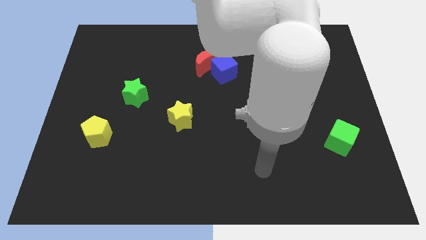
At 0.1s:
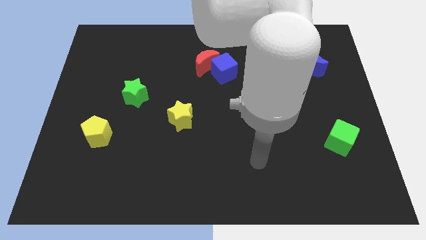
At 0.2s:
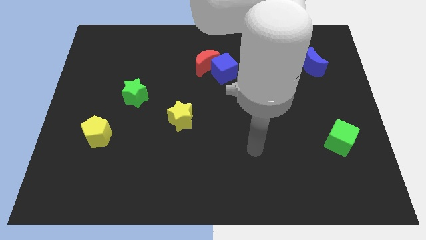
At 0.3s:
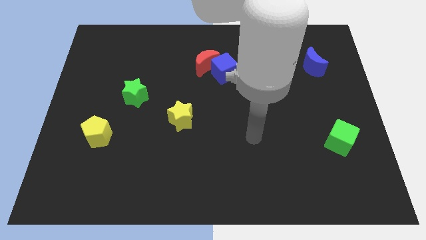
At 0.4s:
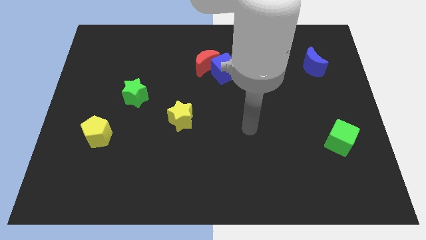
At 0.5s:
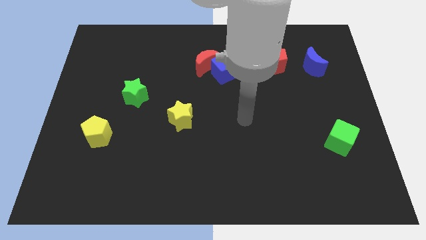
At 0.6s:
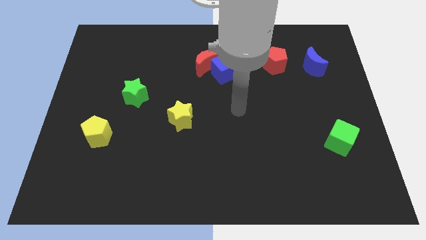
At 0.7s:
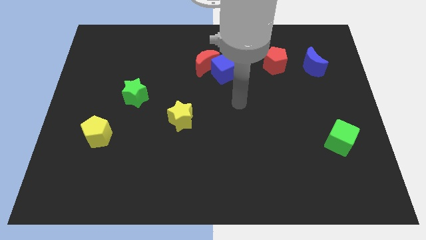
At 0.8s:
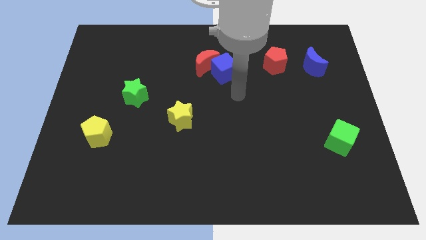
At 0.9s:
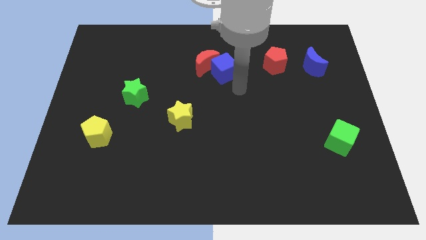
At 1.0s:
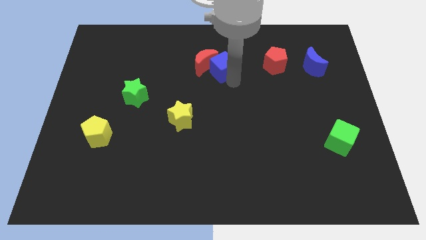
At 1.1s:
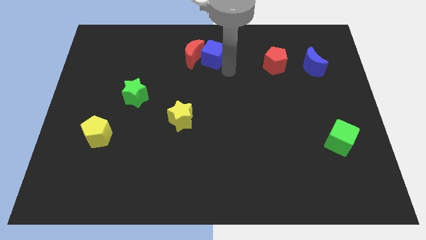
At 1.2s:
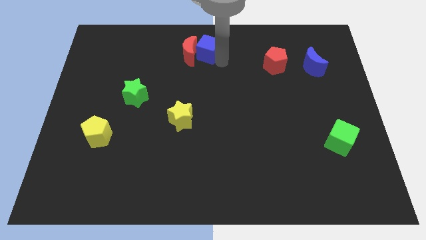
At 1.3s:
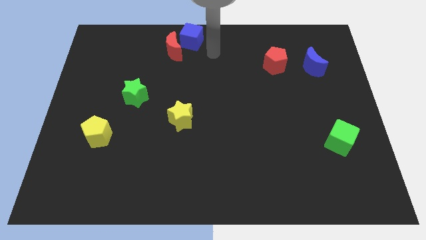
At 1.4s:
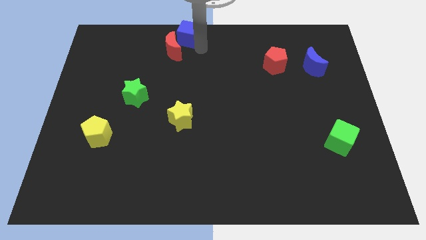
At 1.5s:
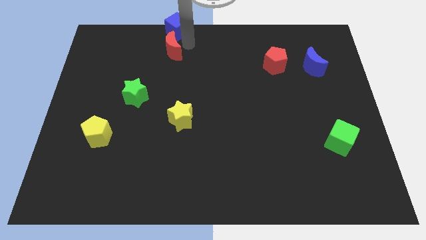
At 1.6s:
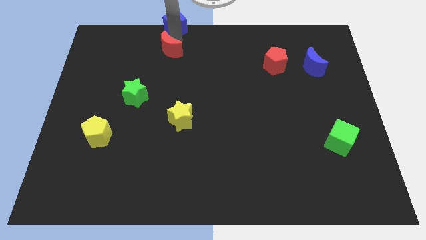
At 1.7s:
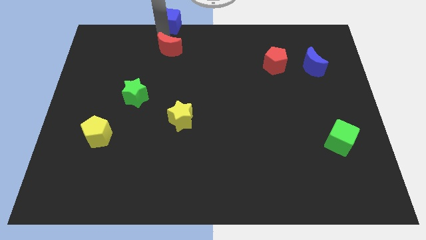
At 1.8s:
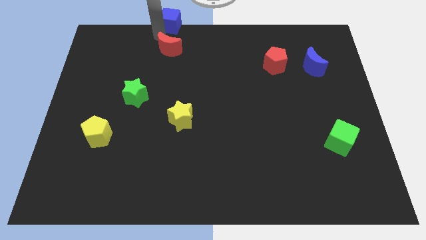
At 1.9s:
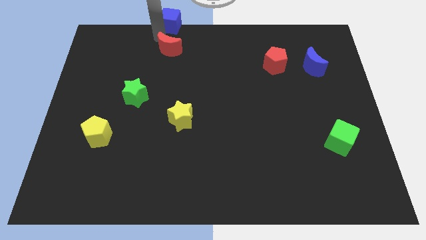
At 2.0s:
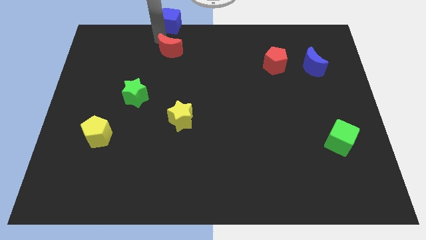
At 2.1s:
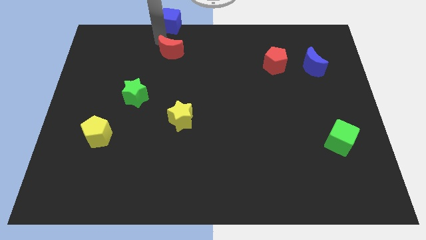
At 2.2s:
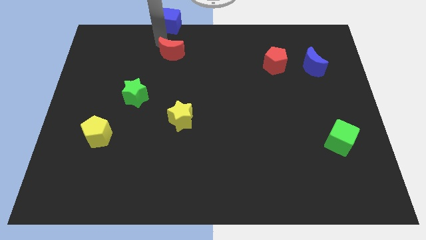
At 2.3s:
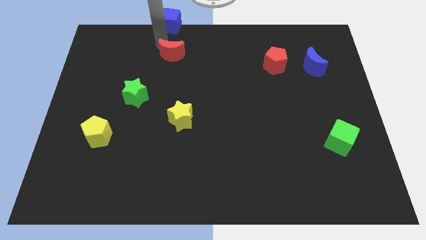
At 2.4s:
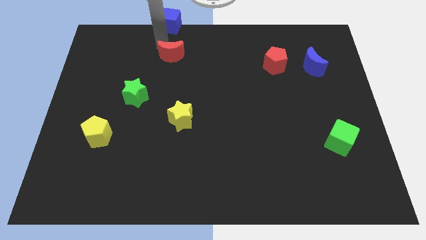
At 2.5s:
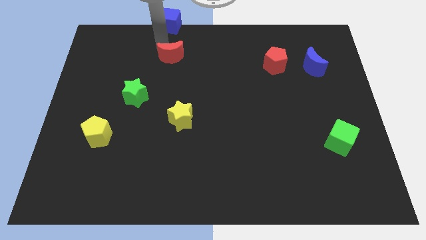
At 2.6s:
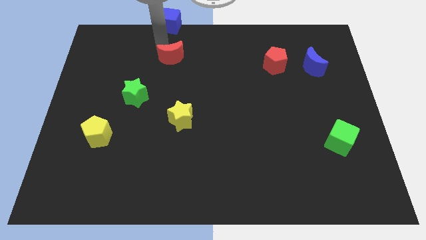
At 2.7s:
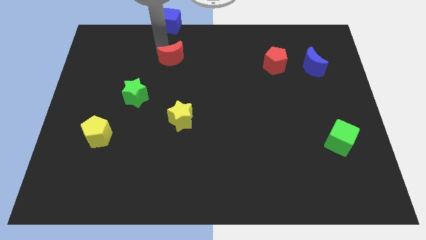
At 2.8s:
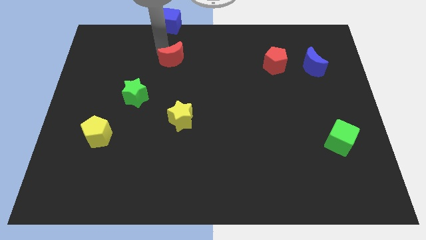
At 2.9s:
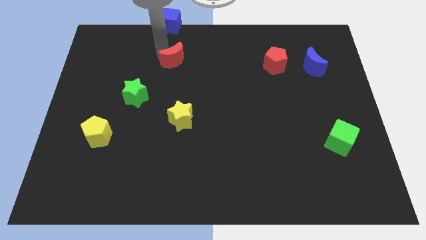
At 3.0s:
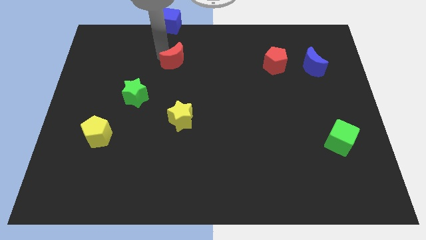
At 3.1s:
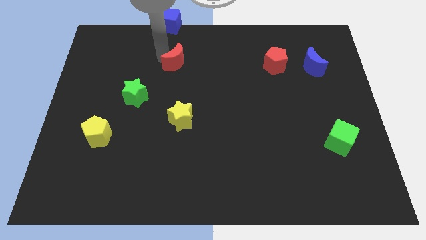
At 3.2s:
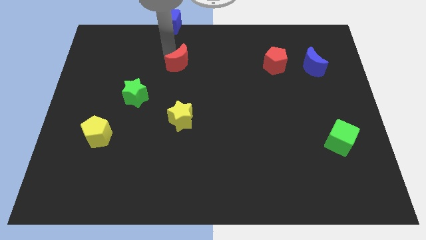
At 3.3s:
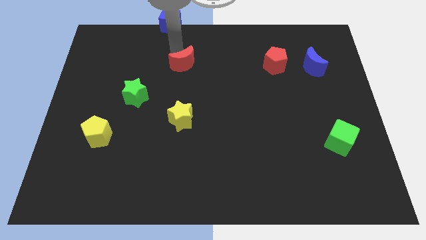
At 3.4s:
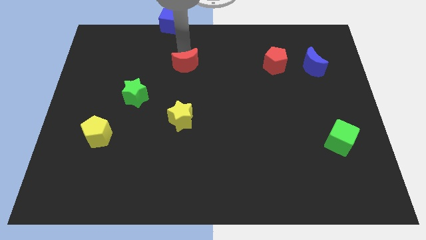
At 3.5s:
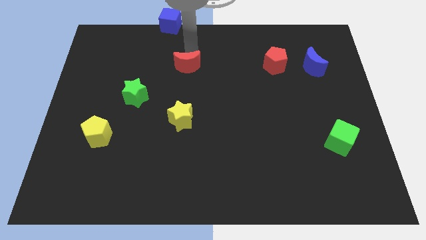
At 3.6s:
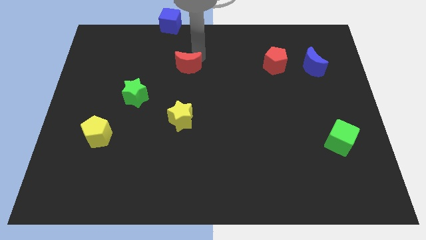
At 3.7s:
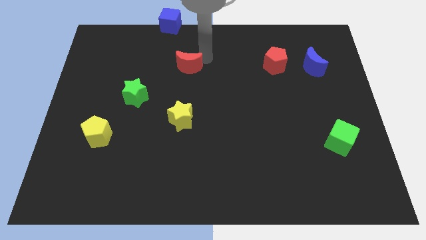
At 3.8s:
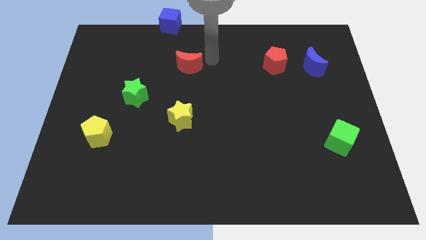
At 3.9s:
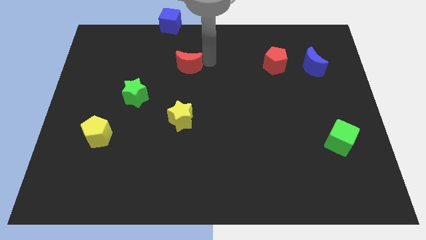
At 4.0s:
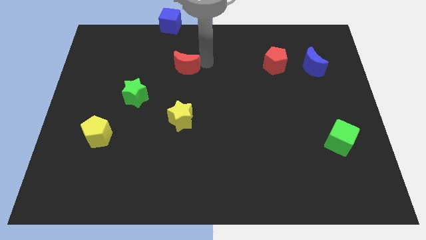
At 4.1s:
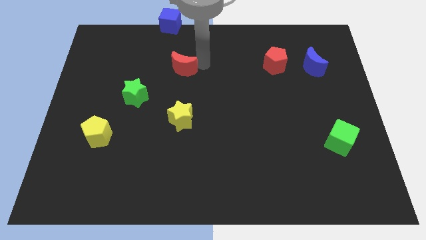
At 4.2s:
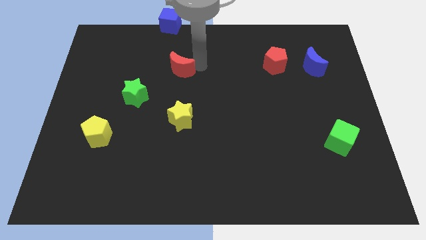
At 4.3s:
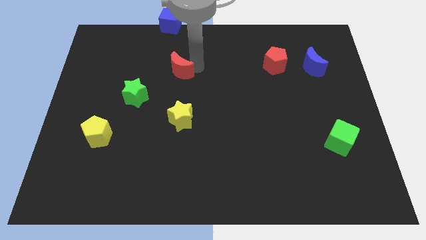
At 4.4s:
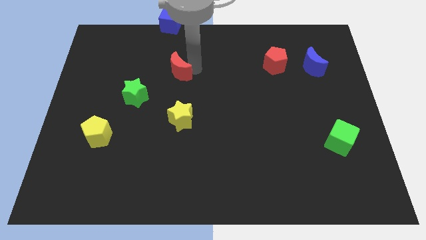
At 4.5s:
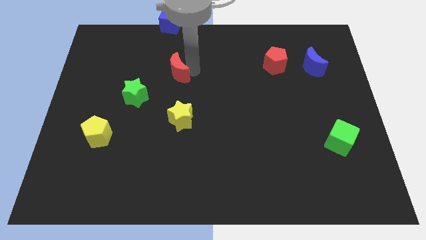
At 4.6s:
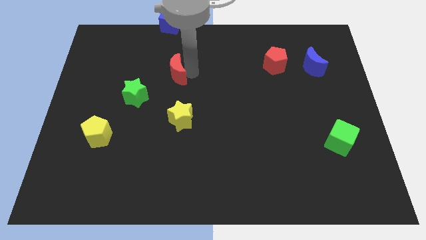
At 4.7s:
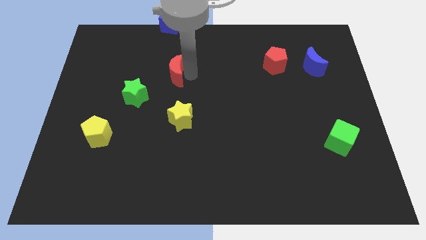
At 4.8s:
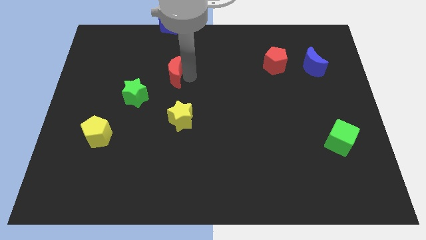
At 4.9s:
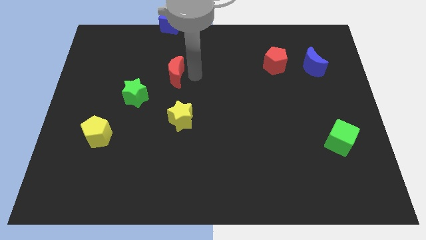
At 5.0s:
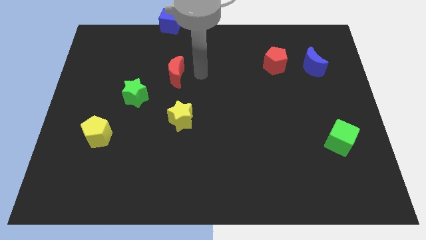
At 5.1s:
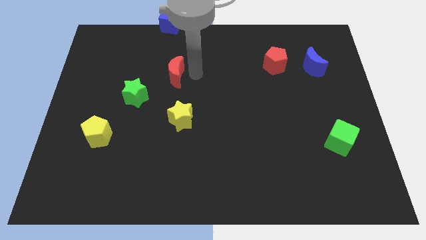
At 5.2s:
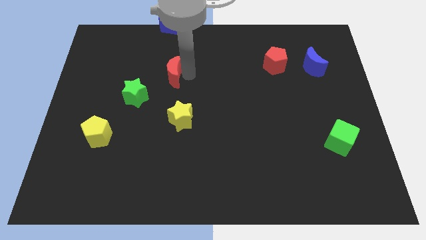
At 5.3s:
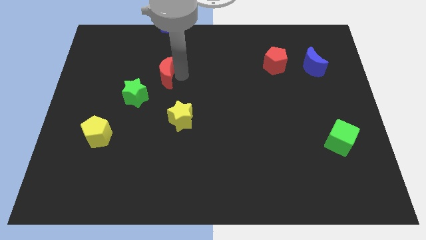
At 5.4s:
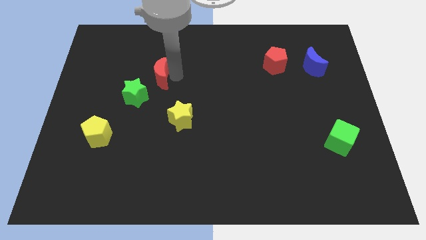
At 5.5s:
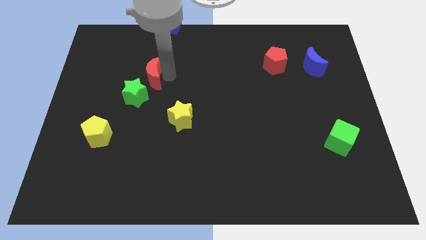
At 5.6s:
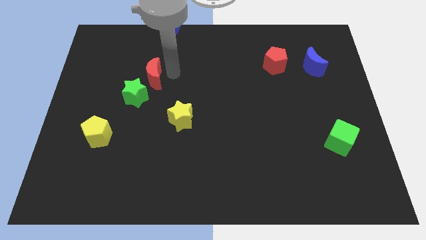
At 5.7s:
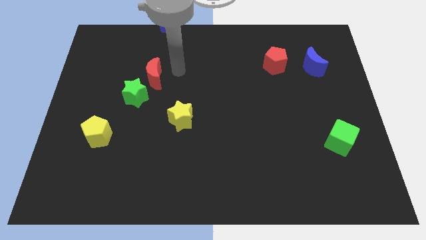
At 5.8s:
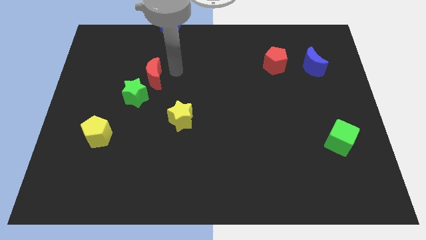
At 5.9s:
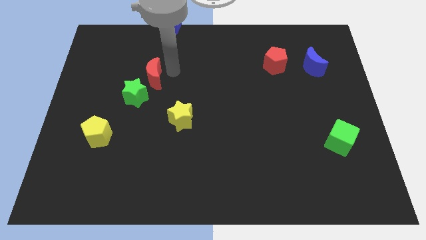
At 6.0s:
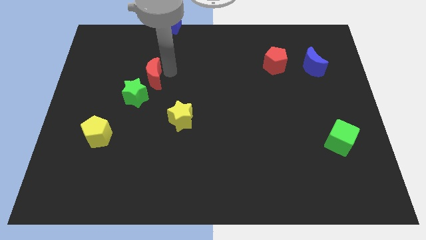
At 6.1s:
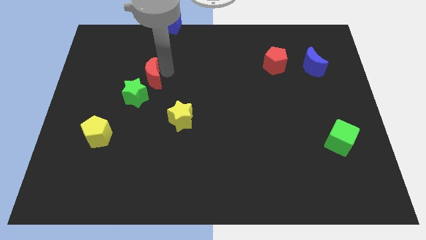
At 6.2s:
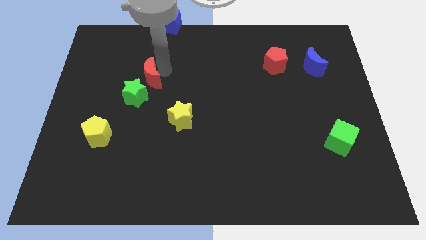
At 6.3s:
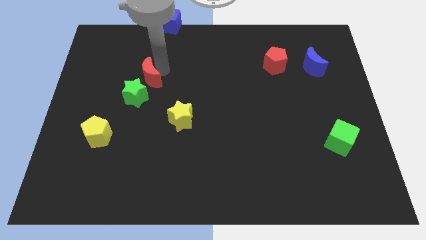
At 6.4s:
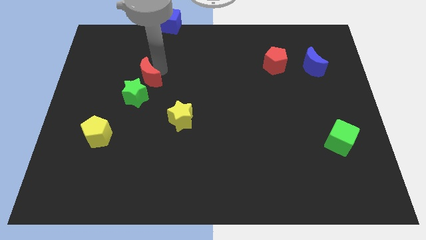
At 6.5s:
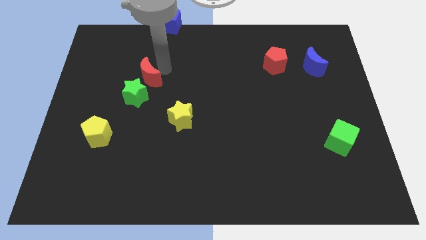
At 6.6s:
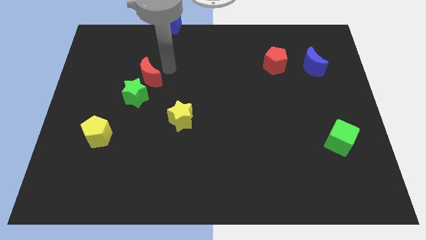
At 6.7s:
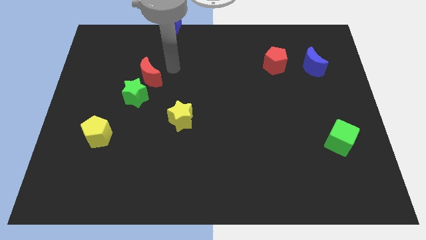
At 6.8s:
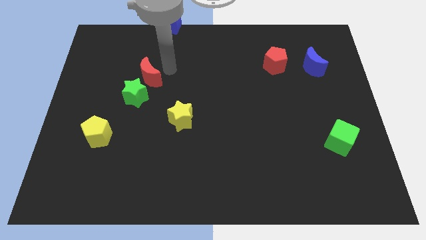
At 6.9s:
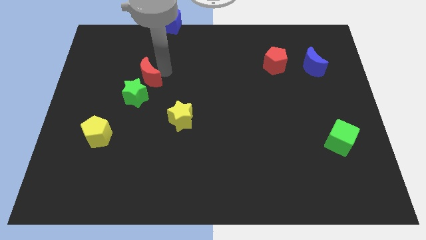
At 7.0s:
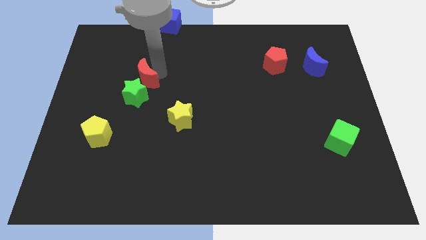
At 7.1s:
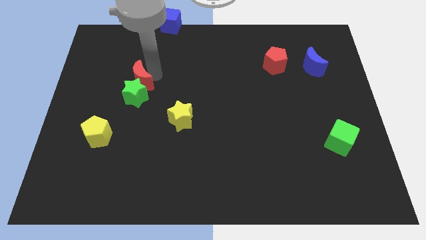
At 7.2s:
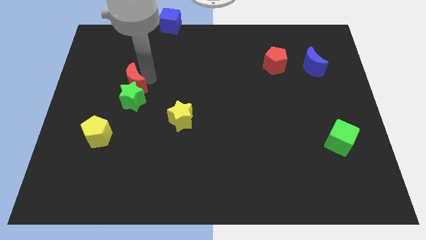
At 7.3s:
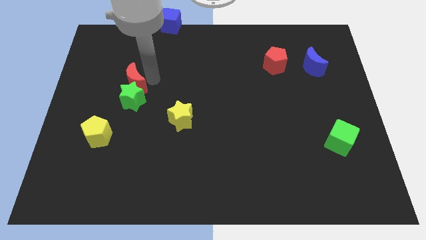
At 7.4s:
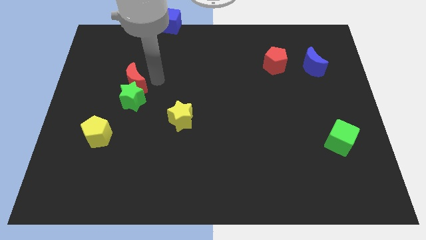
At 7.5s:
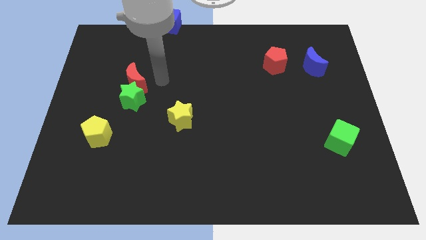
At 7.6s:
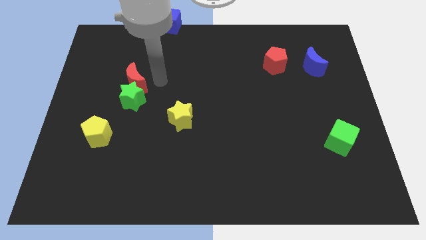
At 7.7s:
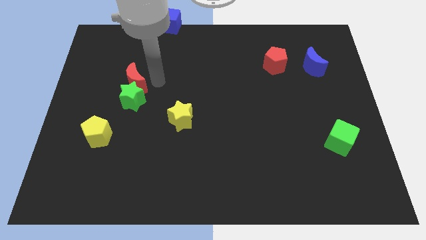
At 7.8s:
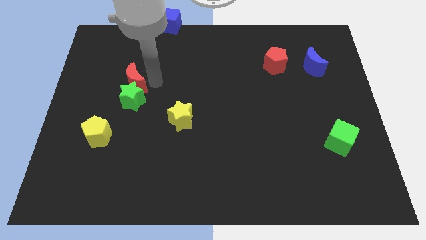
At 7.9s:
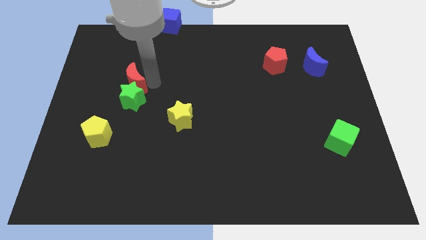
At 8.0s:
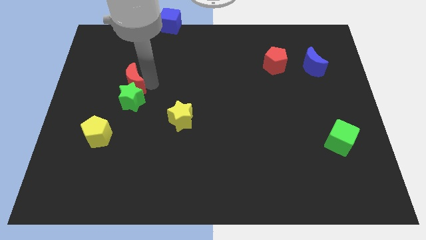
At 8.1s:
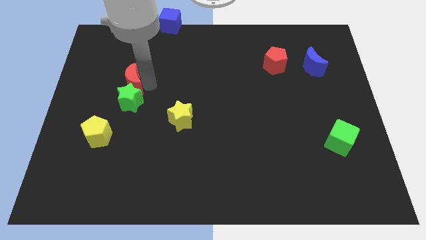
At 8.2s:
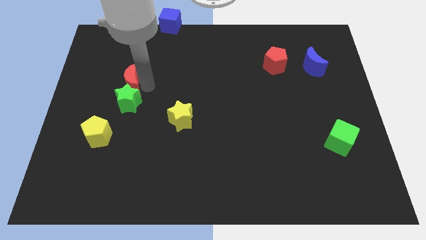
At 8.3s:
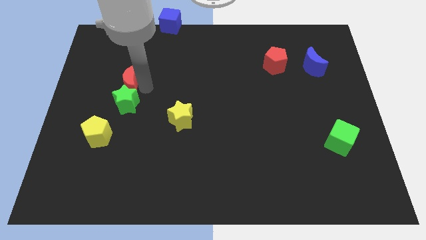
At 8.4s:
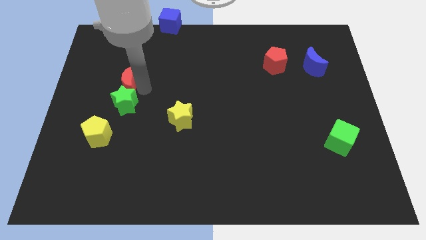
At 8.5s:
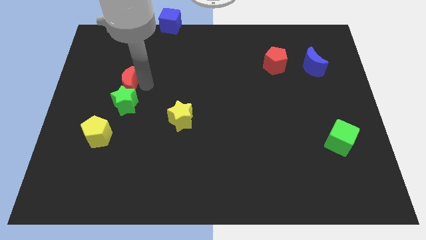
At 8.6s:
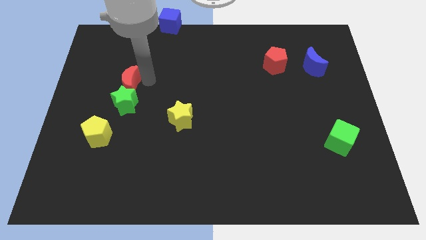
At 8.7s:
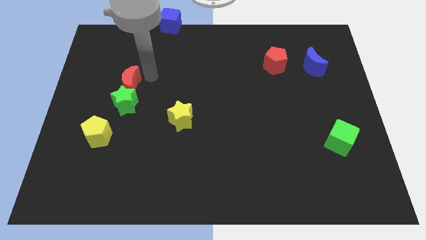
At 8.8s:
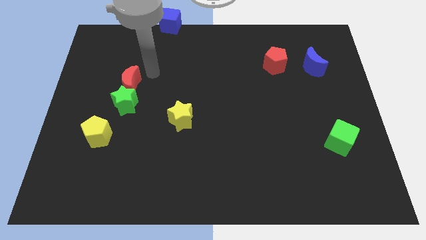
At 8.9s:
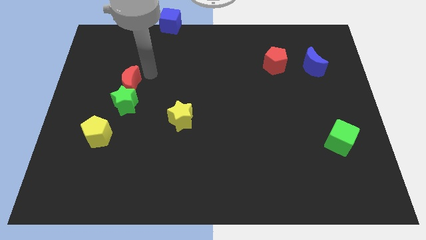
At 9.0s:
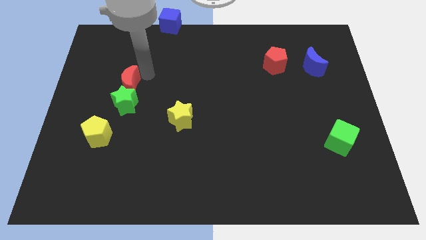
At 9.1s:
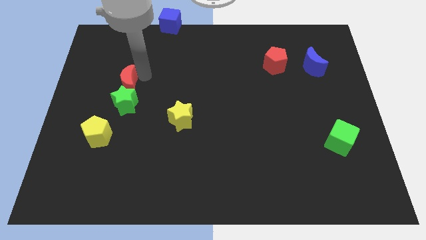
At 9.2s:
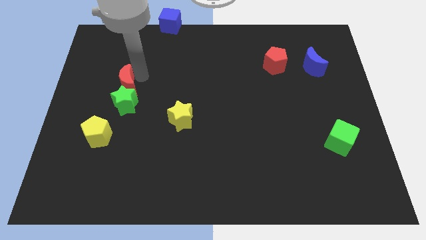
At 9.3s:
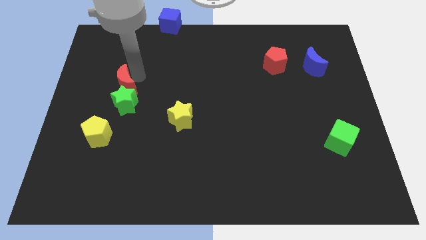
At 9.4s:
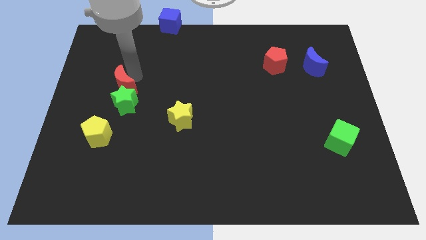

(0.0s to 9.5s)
put the red moon above the yellow pentagon
